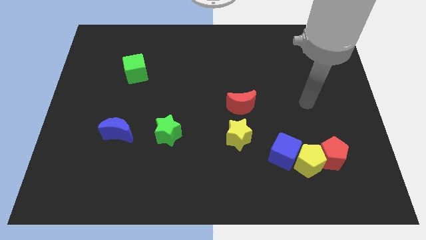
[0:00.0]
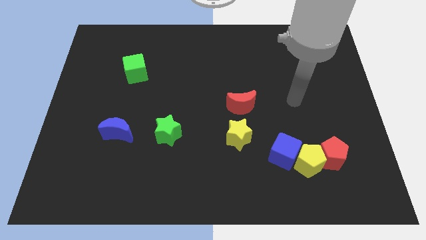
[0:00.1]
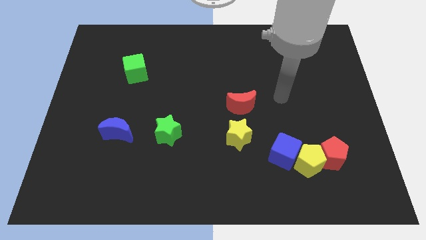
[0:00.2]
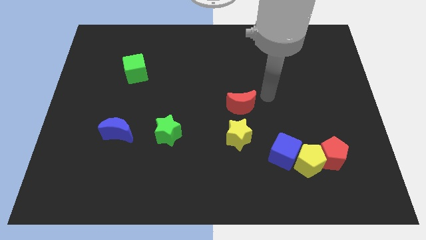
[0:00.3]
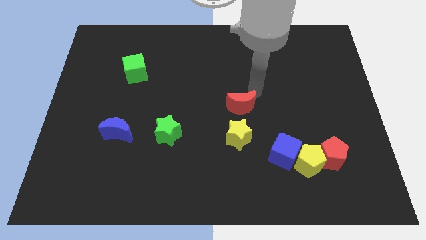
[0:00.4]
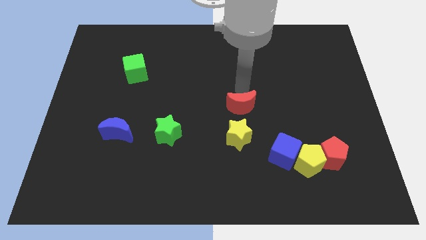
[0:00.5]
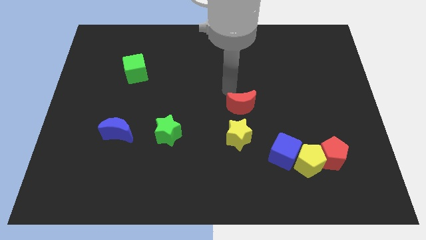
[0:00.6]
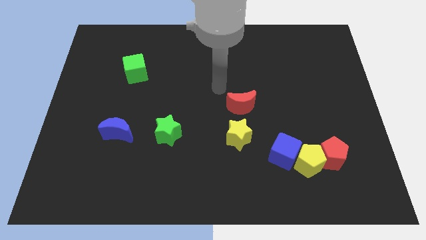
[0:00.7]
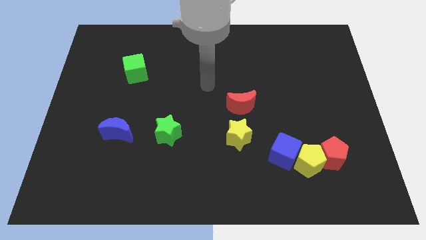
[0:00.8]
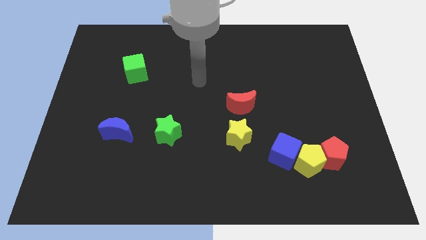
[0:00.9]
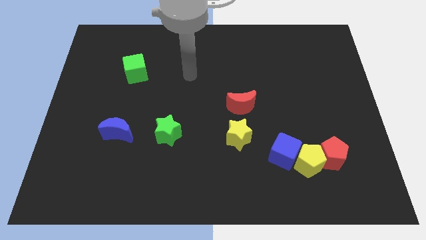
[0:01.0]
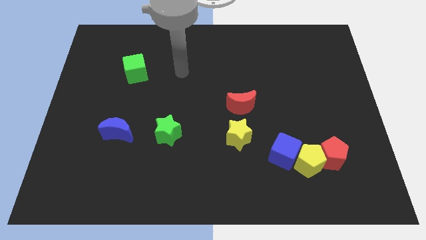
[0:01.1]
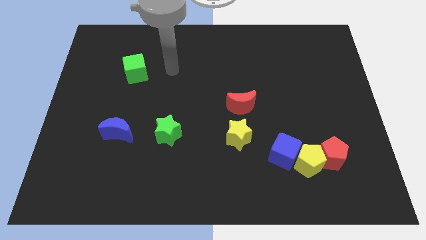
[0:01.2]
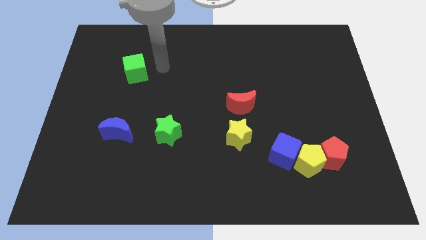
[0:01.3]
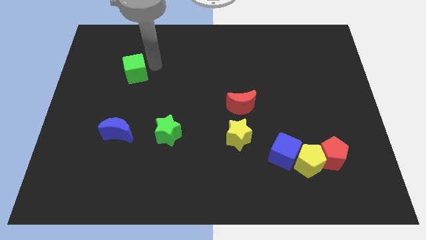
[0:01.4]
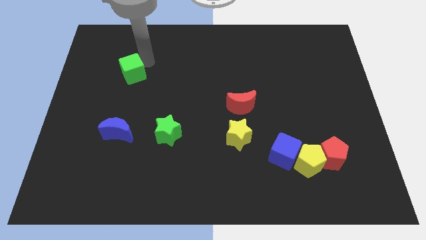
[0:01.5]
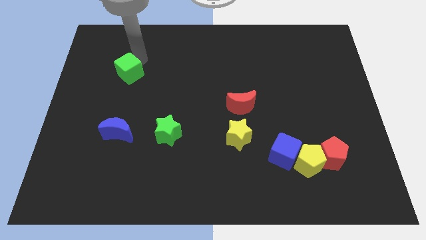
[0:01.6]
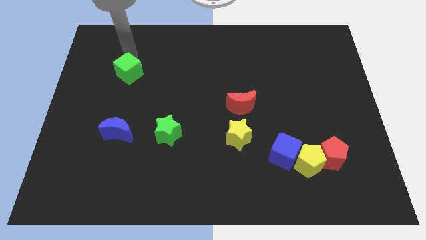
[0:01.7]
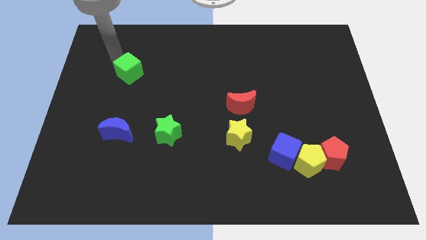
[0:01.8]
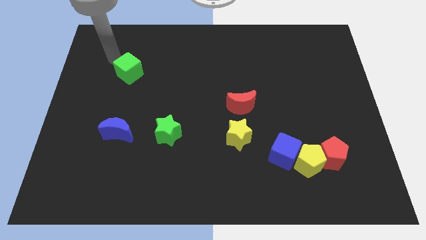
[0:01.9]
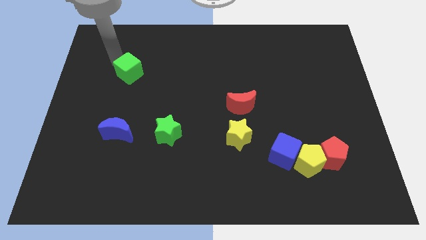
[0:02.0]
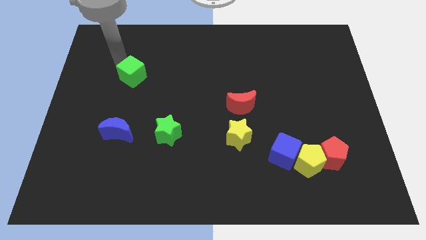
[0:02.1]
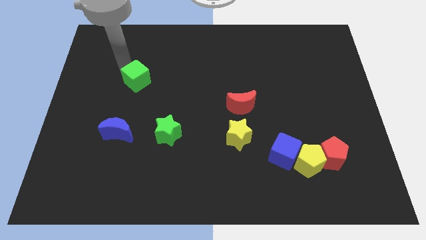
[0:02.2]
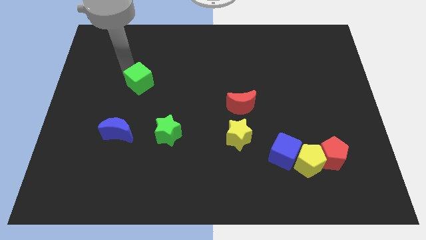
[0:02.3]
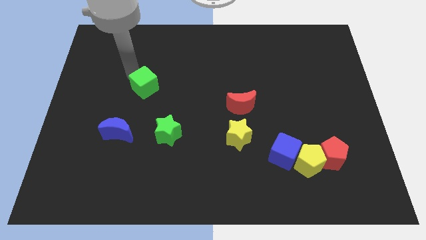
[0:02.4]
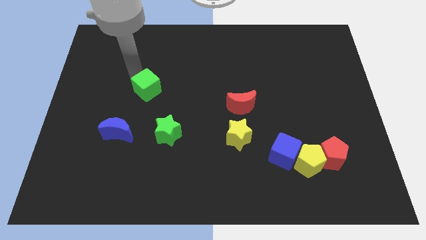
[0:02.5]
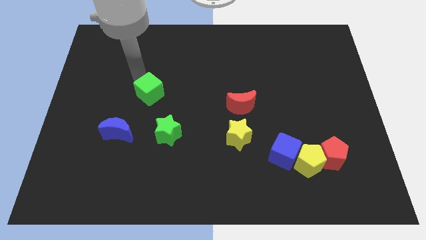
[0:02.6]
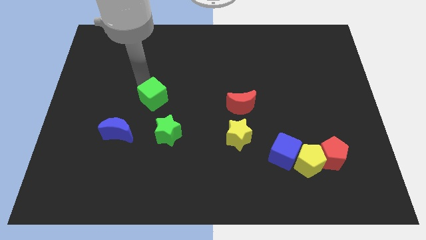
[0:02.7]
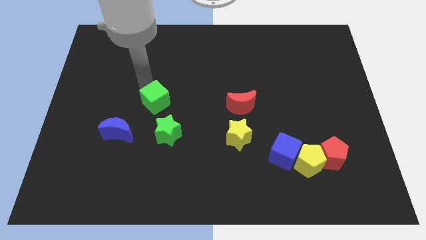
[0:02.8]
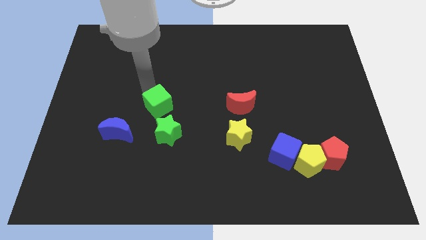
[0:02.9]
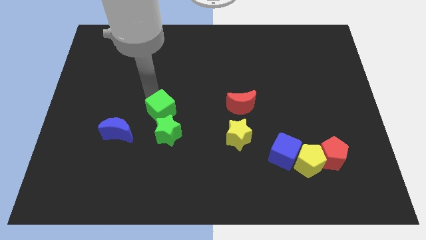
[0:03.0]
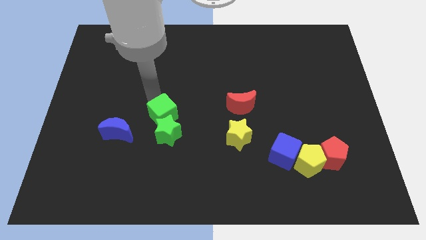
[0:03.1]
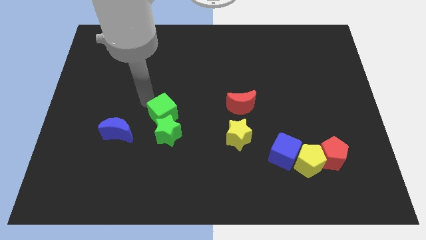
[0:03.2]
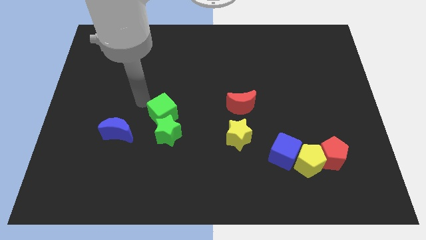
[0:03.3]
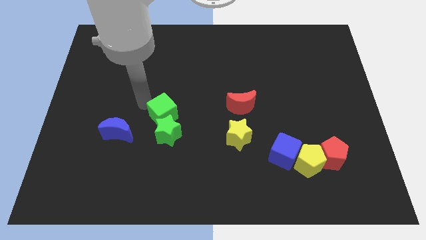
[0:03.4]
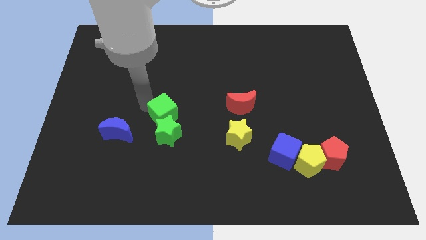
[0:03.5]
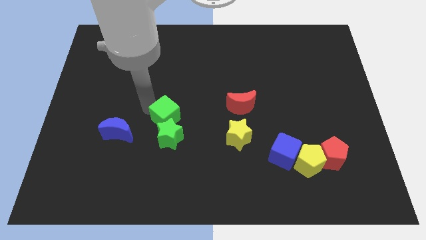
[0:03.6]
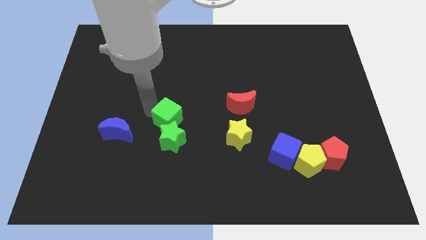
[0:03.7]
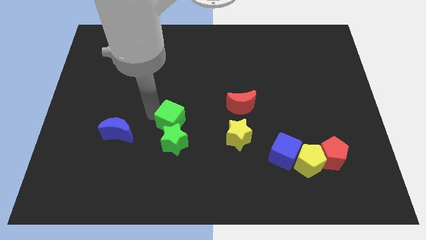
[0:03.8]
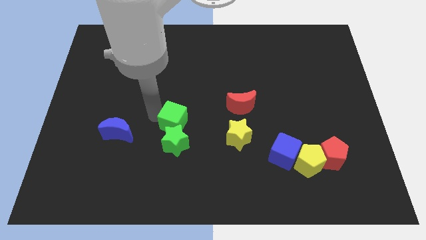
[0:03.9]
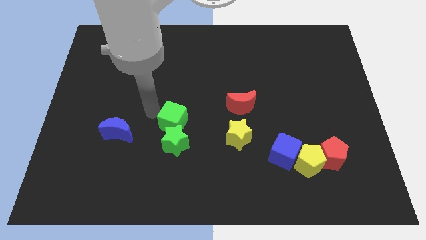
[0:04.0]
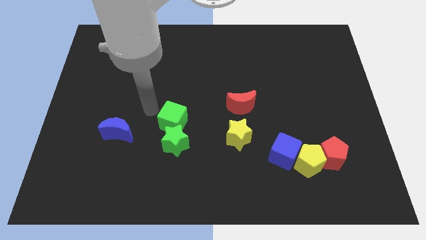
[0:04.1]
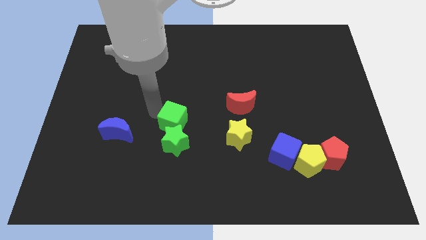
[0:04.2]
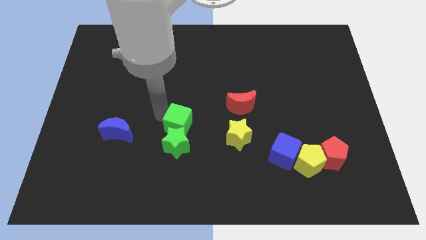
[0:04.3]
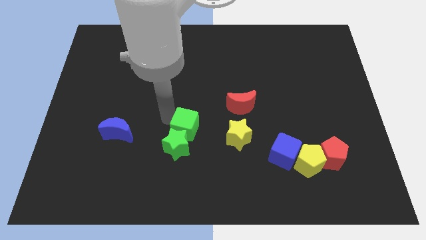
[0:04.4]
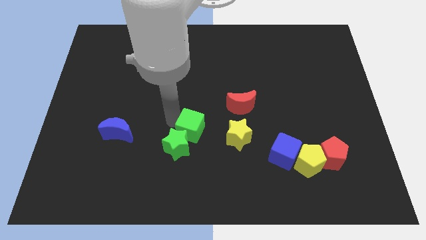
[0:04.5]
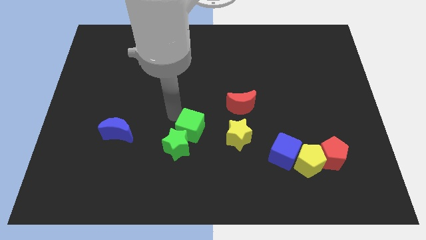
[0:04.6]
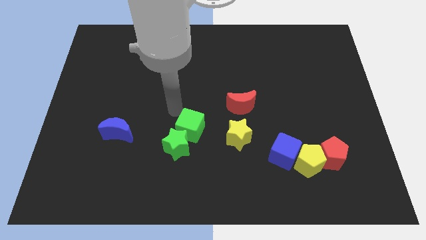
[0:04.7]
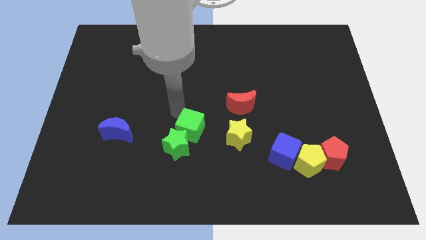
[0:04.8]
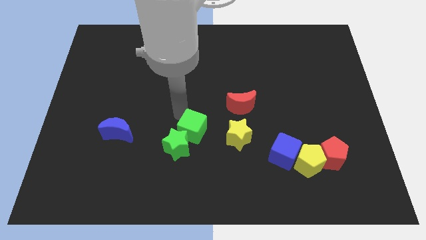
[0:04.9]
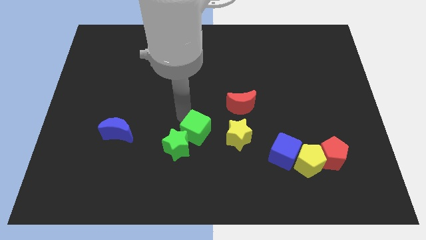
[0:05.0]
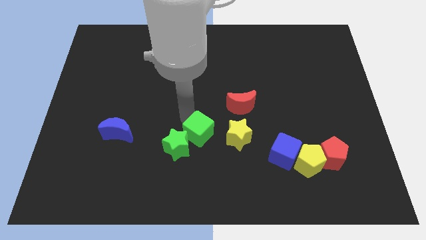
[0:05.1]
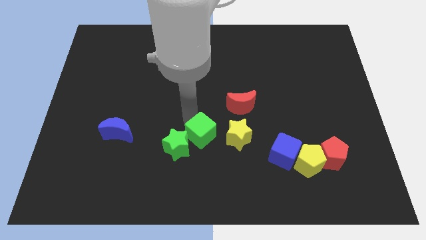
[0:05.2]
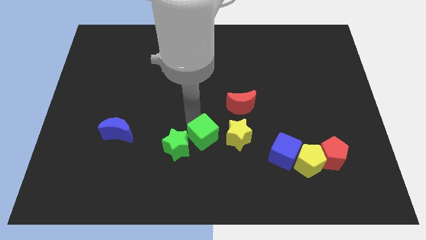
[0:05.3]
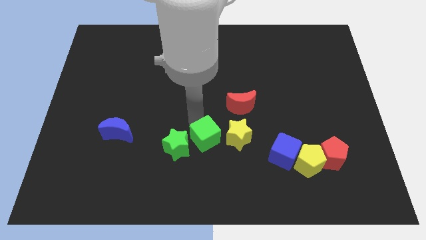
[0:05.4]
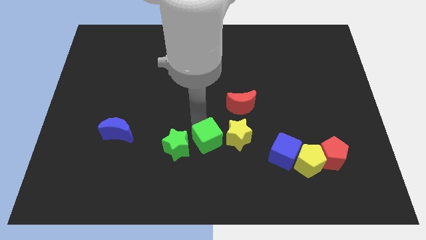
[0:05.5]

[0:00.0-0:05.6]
push the green cube diagonally down and to the left of the yellow star

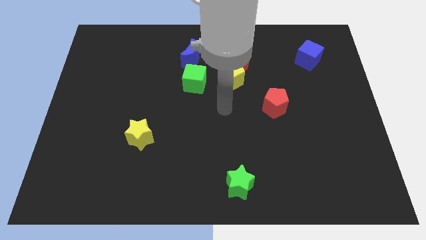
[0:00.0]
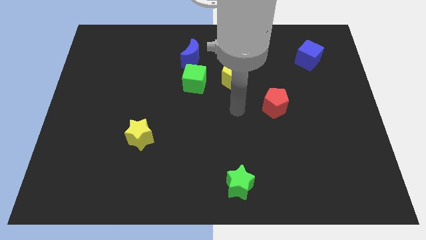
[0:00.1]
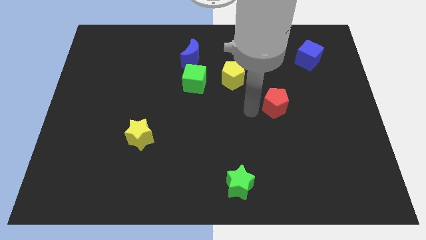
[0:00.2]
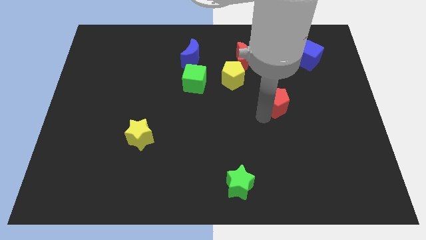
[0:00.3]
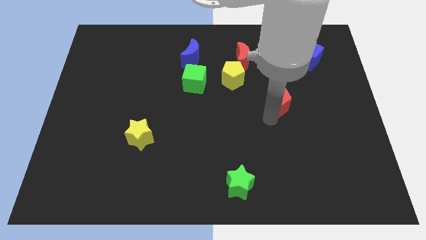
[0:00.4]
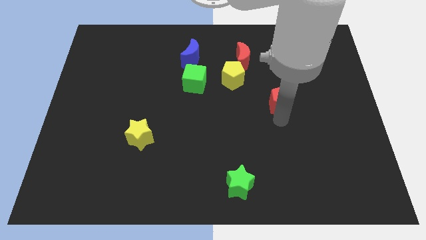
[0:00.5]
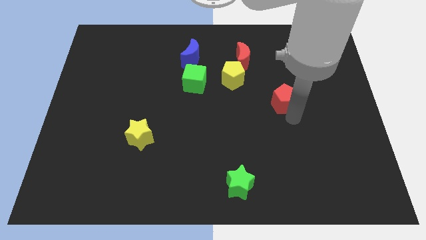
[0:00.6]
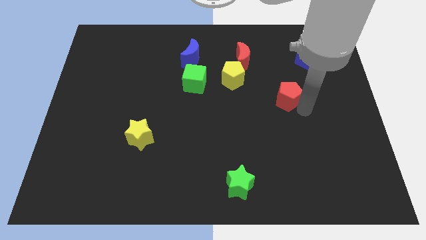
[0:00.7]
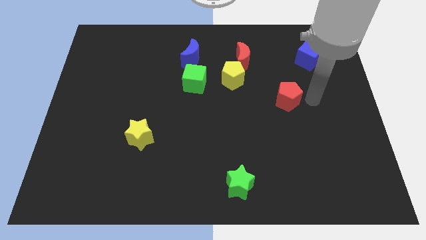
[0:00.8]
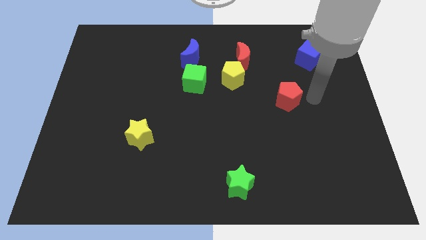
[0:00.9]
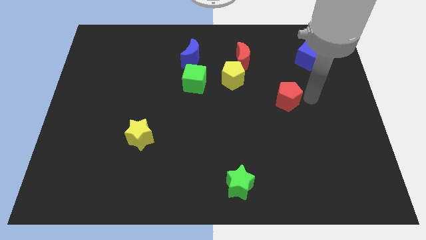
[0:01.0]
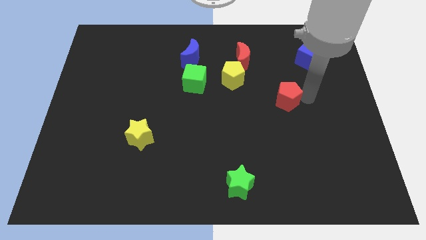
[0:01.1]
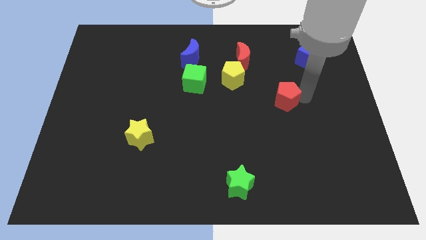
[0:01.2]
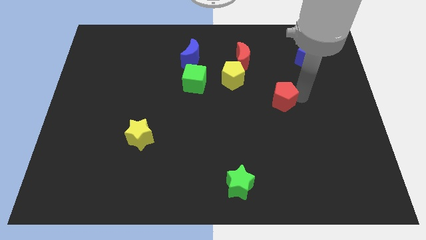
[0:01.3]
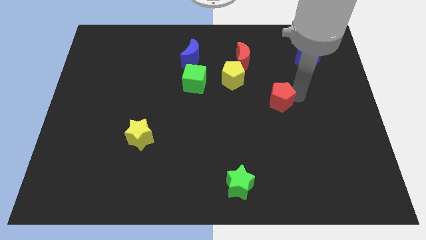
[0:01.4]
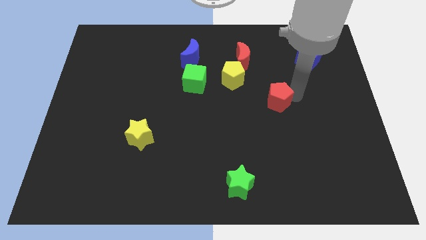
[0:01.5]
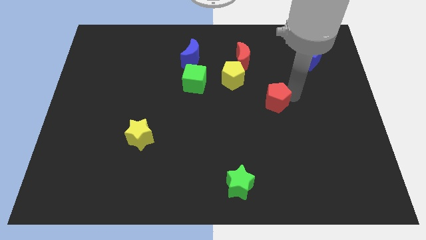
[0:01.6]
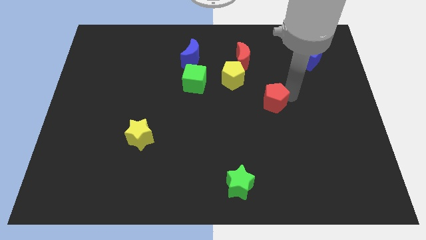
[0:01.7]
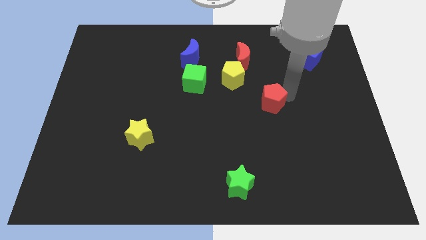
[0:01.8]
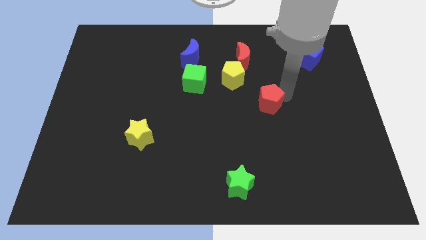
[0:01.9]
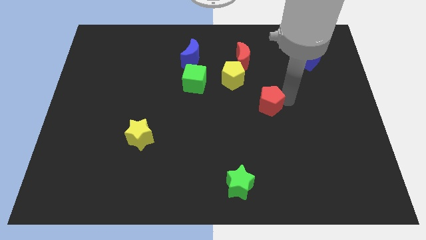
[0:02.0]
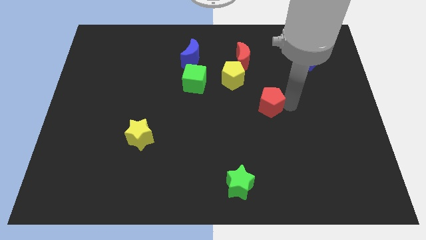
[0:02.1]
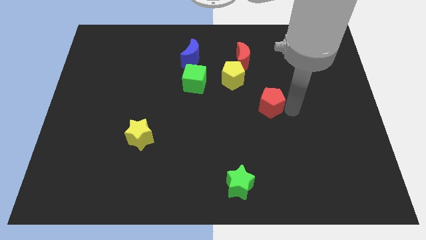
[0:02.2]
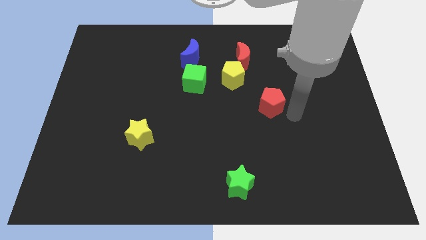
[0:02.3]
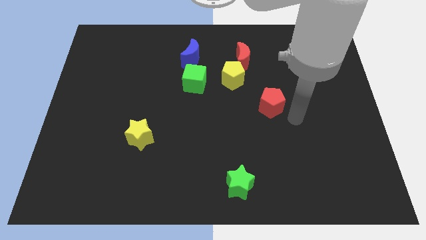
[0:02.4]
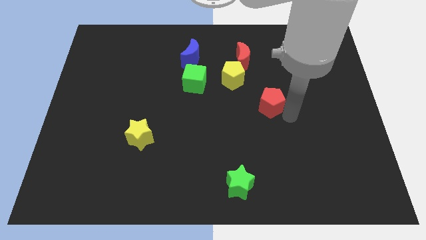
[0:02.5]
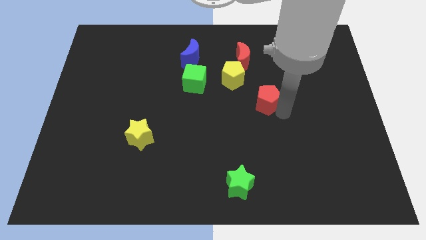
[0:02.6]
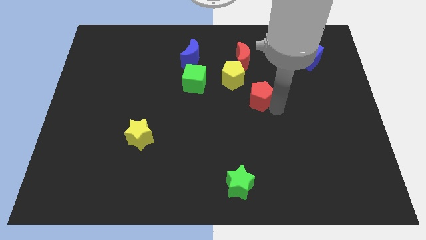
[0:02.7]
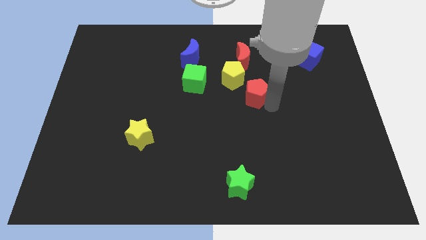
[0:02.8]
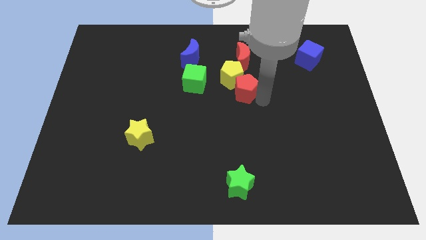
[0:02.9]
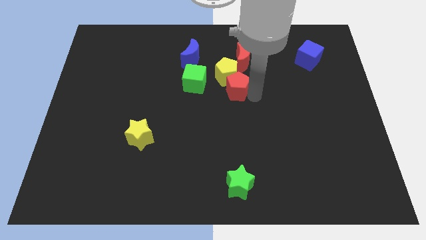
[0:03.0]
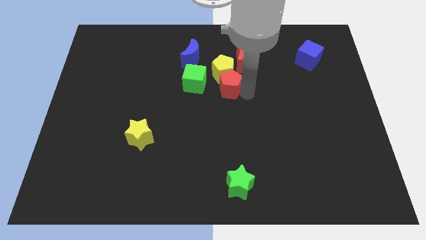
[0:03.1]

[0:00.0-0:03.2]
put the red pentagon diagonally down and to the left of the red moon
